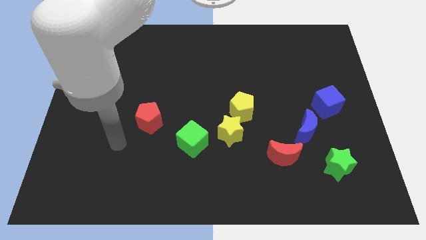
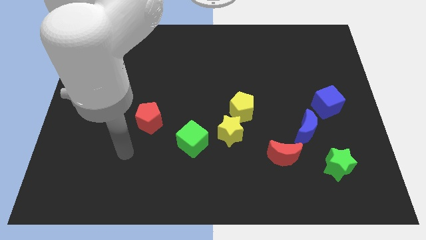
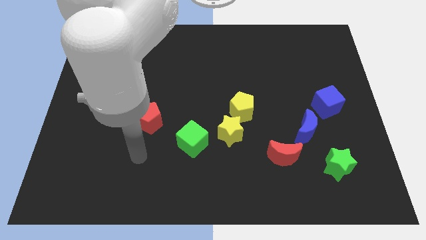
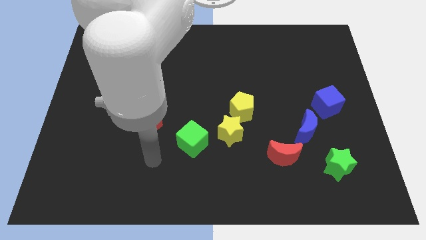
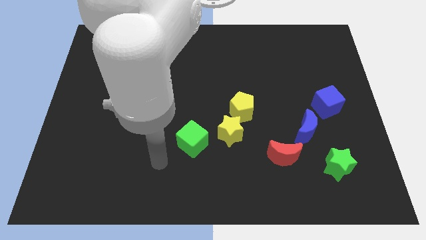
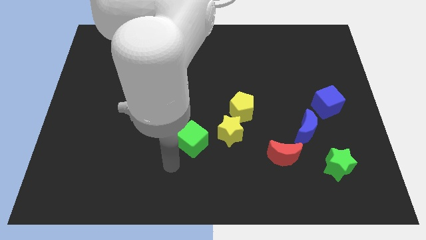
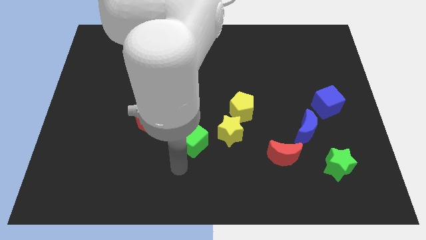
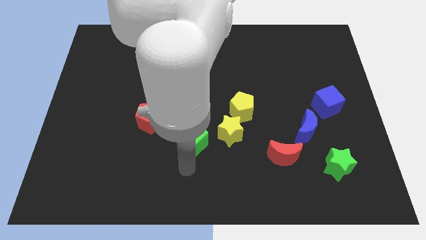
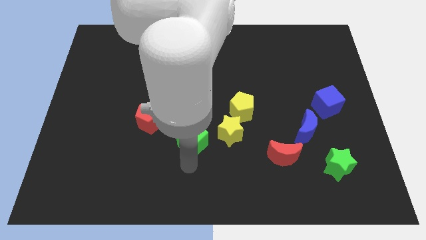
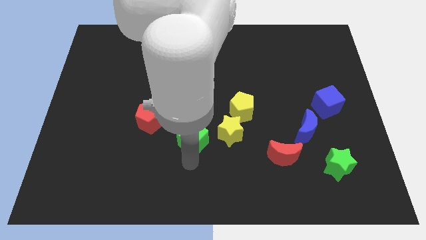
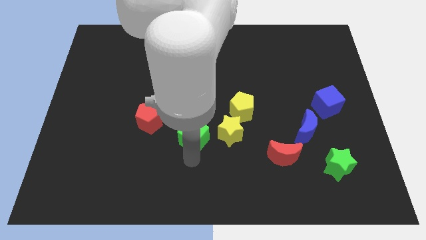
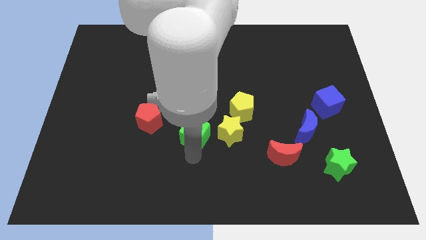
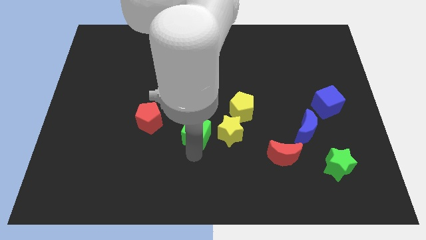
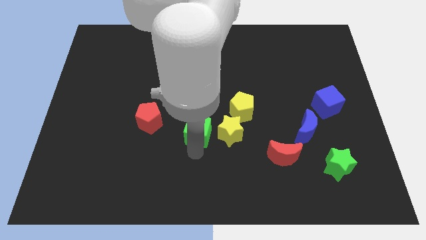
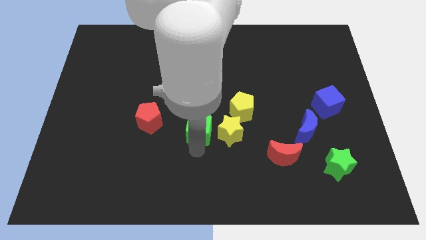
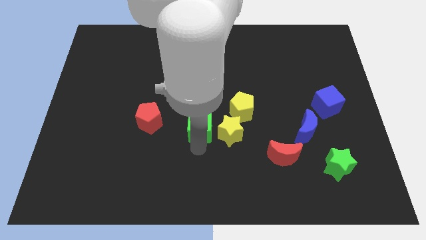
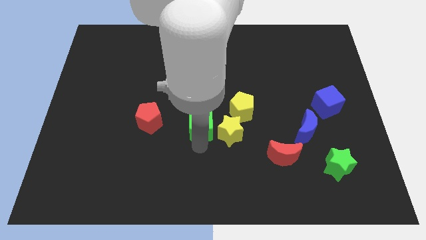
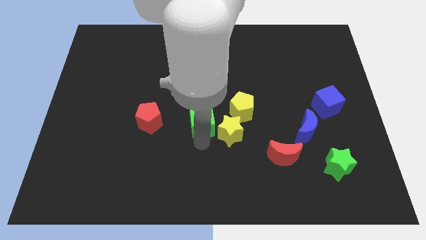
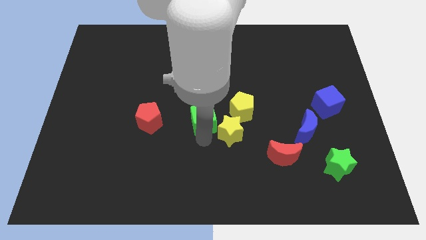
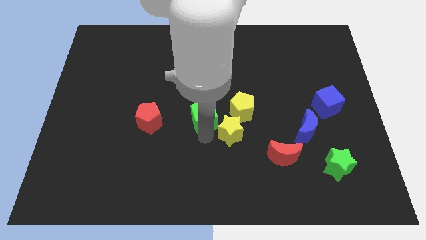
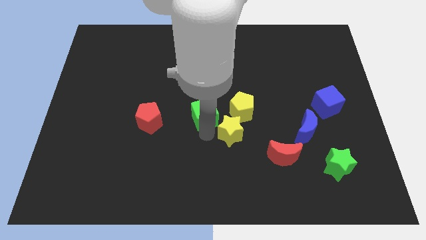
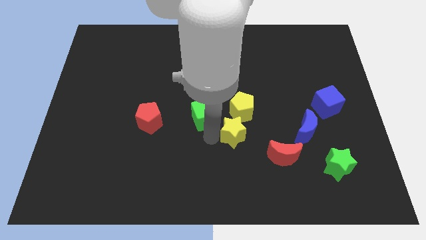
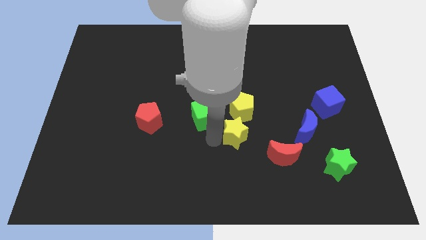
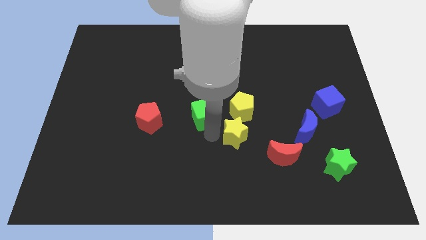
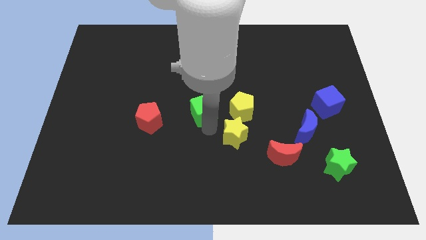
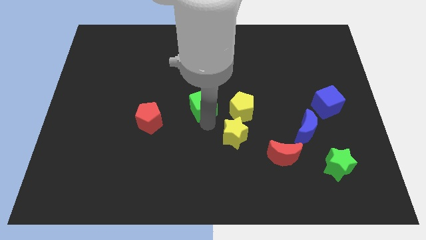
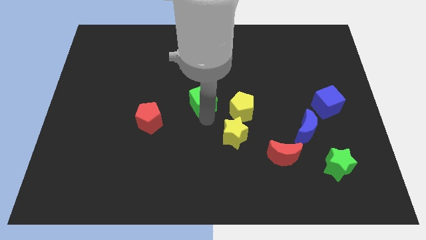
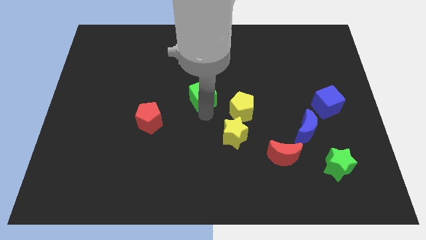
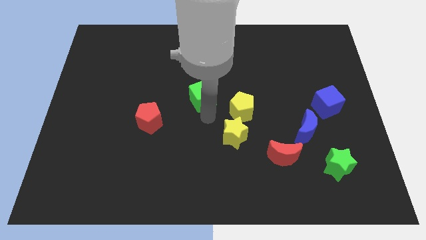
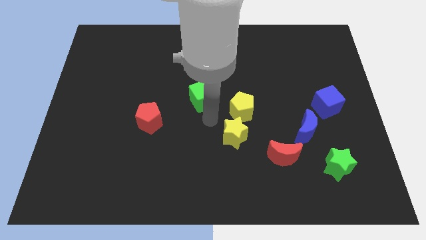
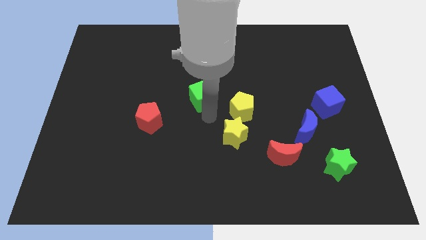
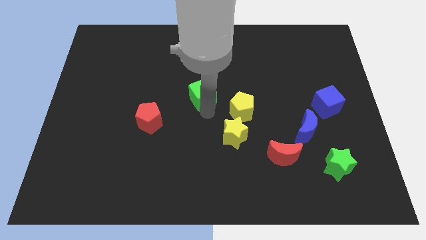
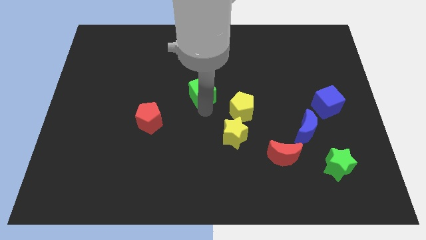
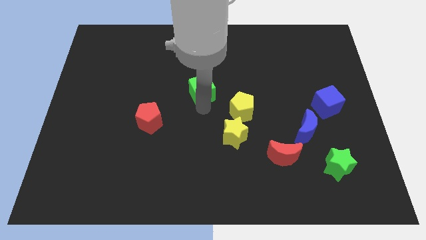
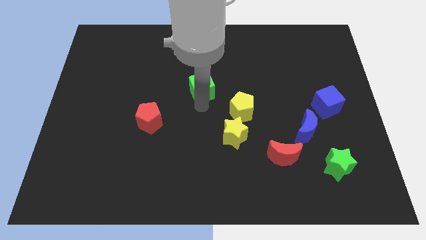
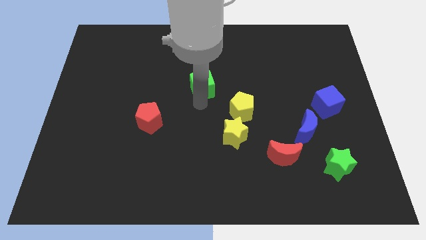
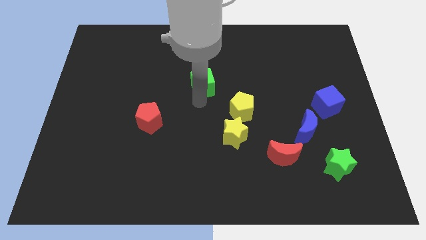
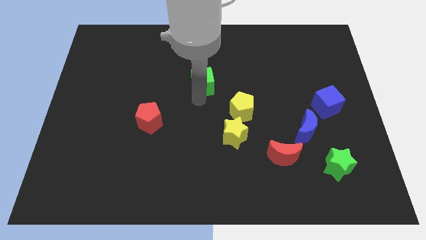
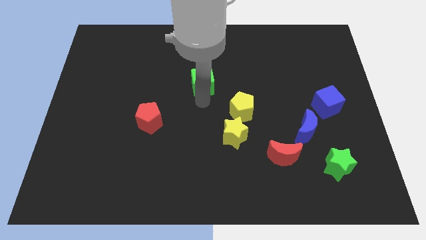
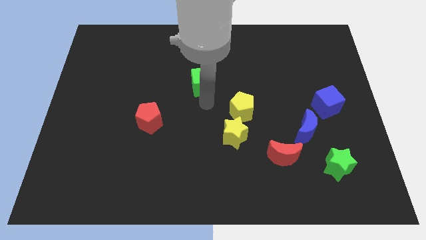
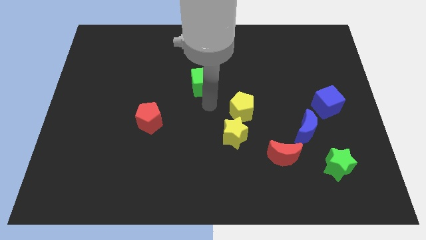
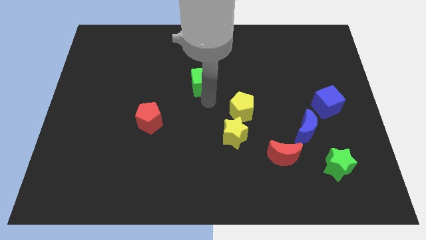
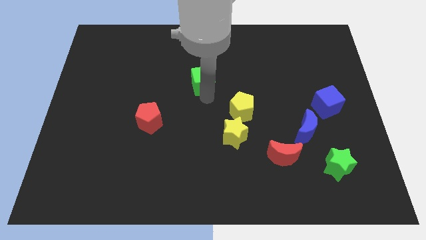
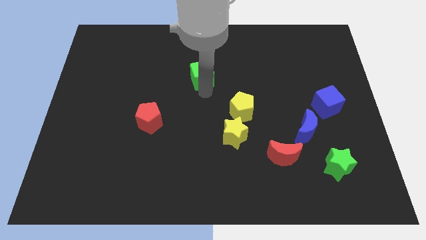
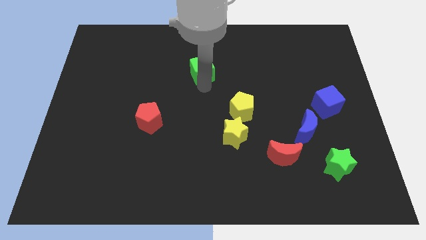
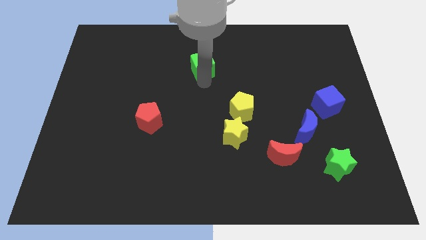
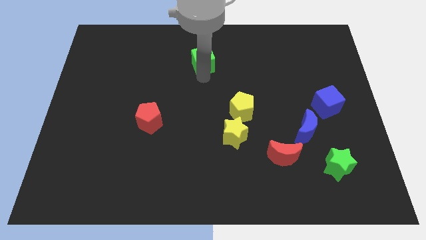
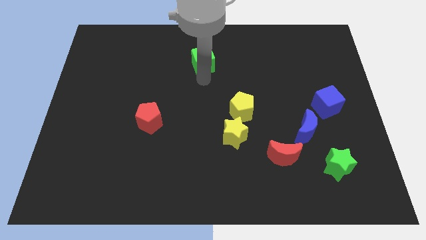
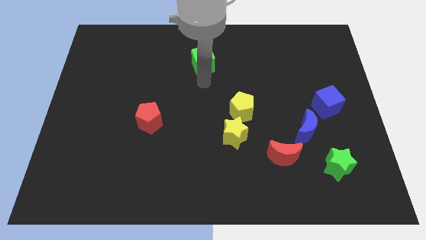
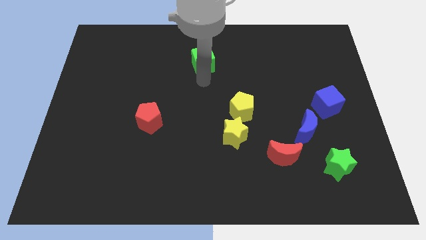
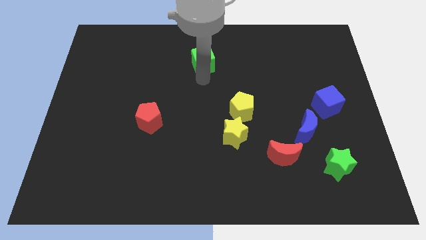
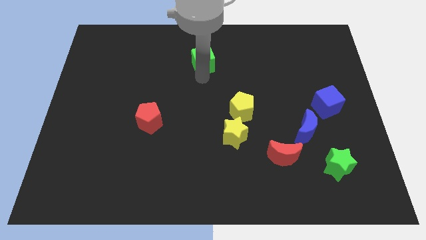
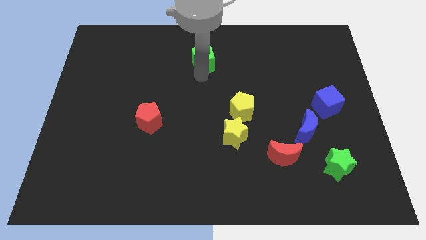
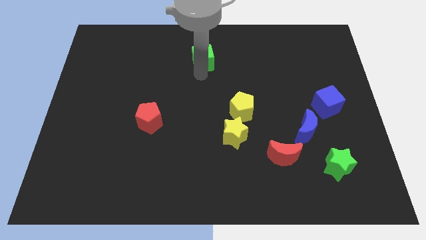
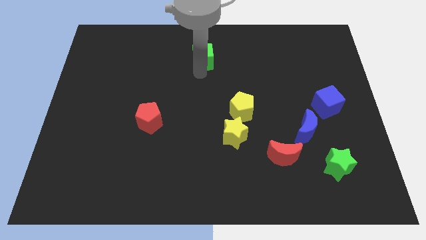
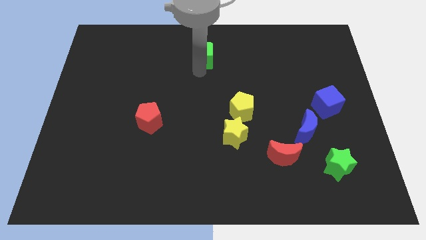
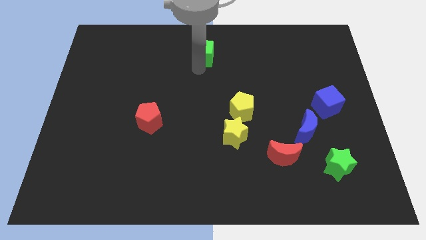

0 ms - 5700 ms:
slide the green cube to the towards your base
